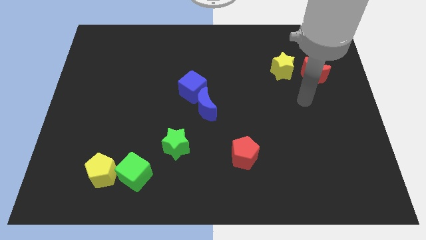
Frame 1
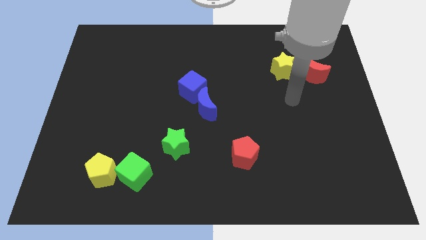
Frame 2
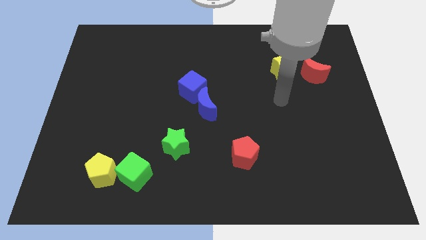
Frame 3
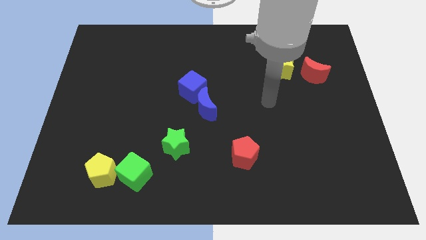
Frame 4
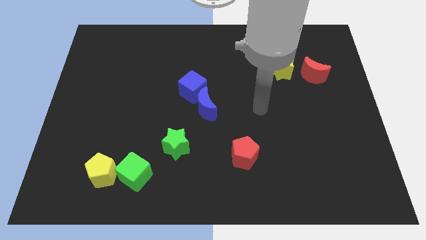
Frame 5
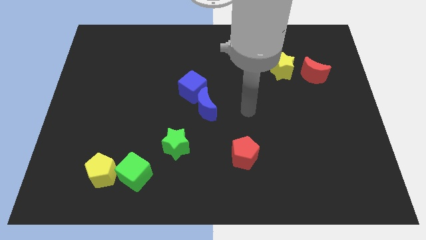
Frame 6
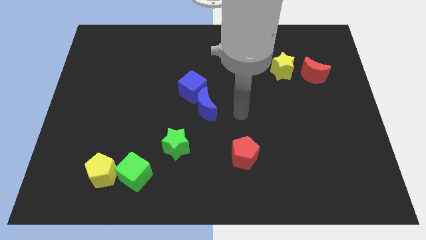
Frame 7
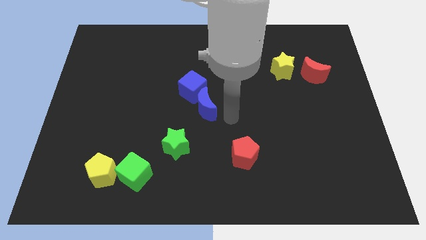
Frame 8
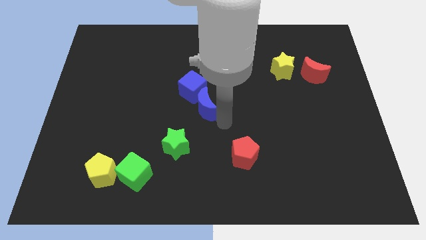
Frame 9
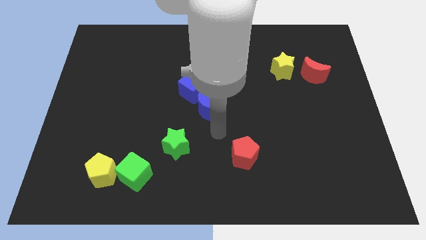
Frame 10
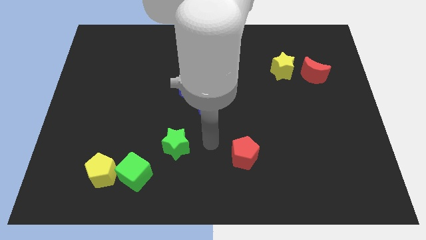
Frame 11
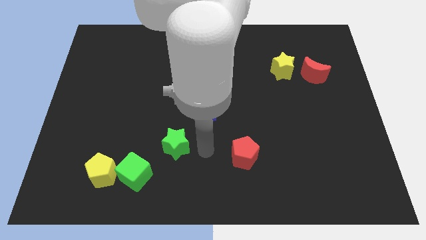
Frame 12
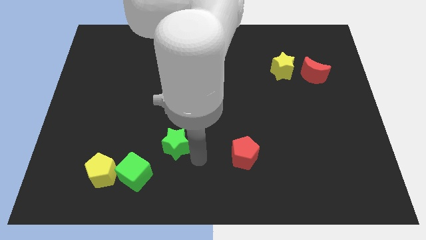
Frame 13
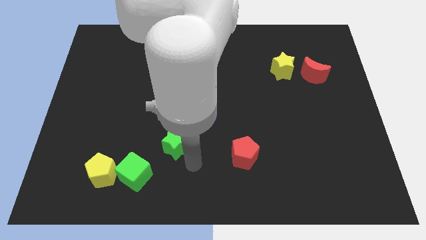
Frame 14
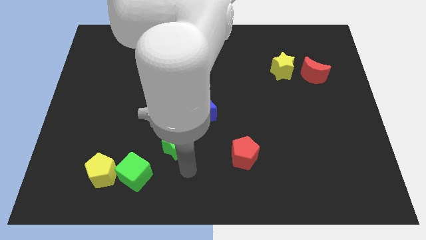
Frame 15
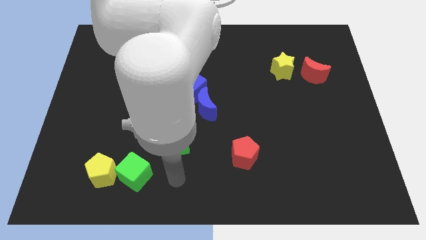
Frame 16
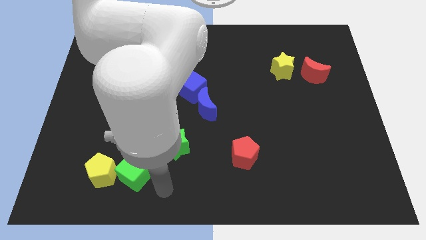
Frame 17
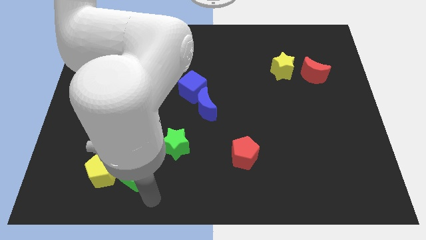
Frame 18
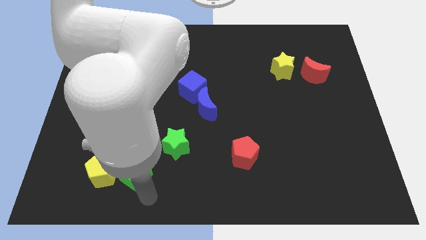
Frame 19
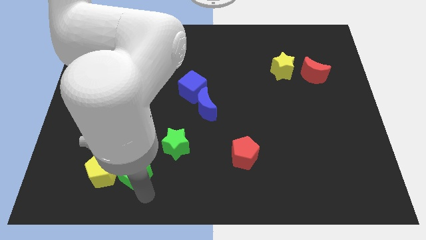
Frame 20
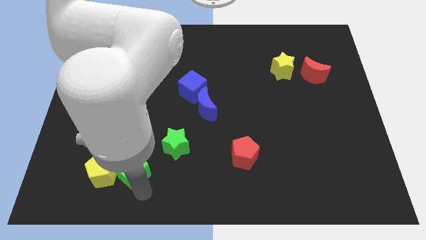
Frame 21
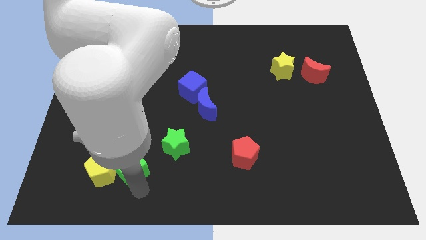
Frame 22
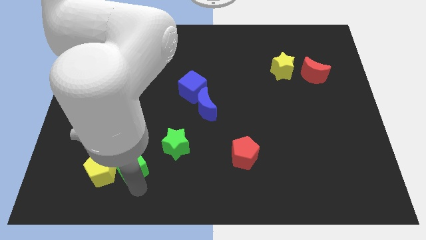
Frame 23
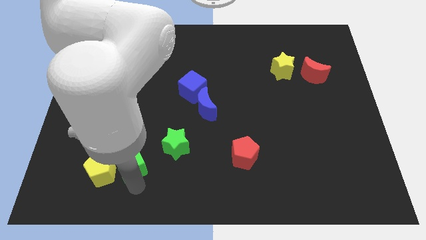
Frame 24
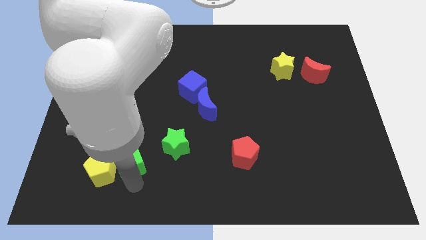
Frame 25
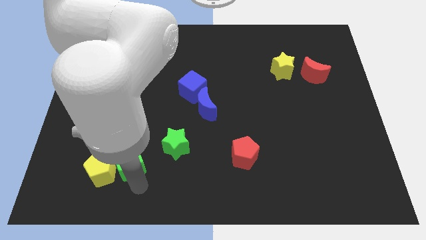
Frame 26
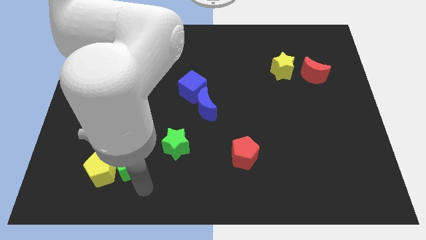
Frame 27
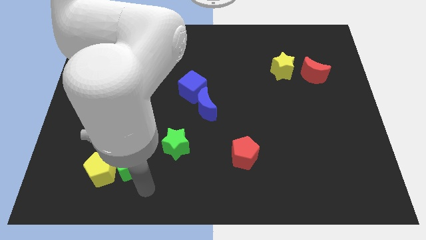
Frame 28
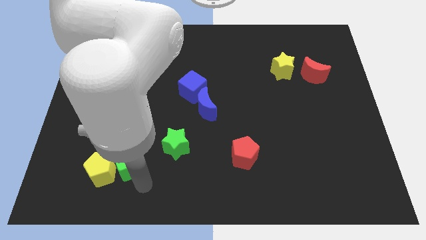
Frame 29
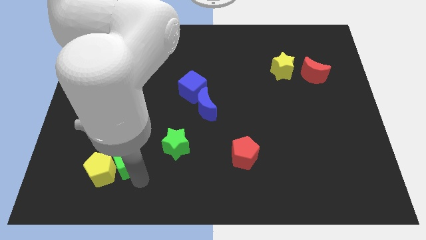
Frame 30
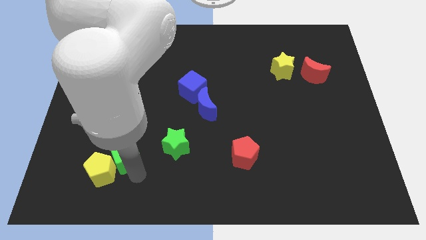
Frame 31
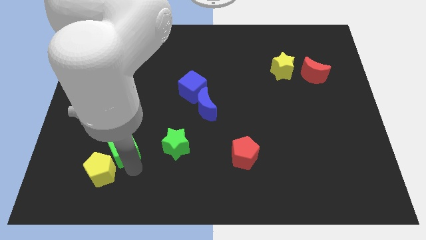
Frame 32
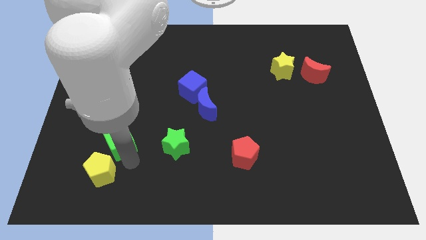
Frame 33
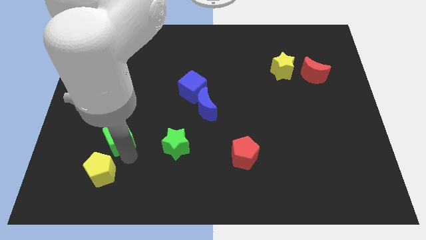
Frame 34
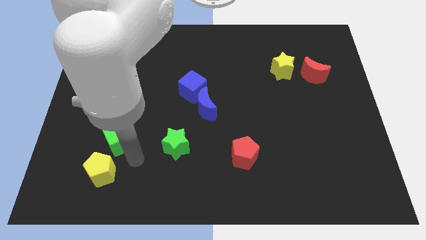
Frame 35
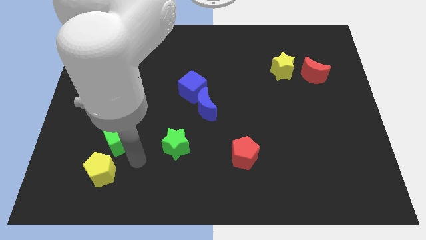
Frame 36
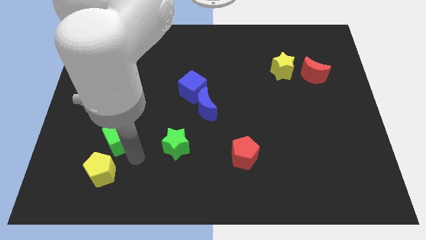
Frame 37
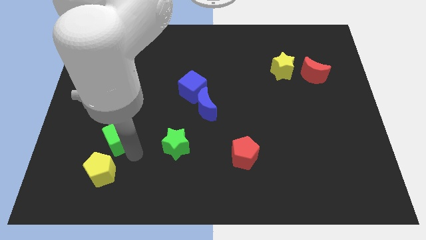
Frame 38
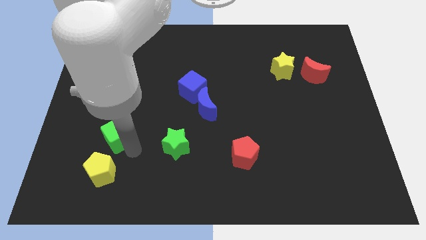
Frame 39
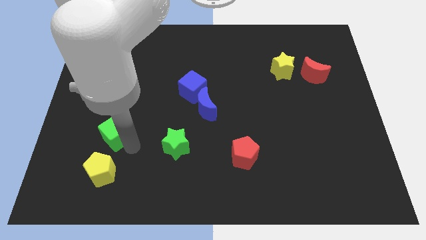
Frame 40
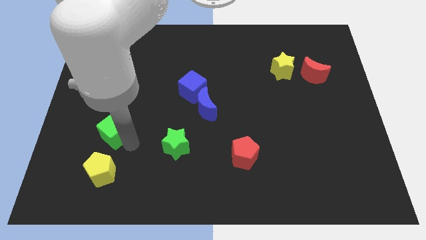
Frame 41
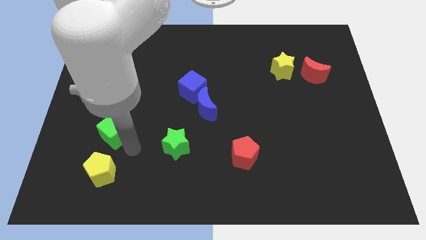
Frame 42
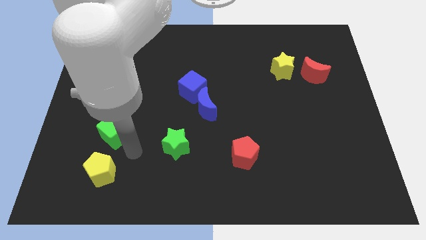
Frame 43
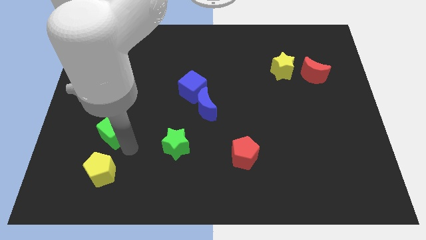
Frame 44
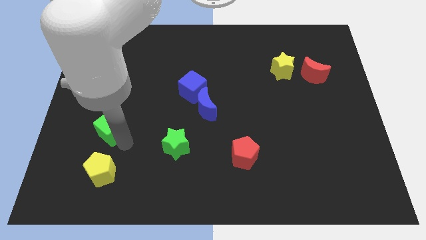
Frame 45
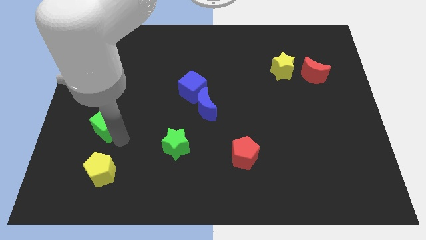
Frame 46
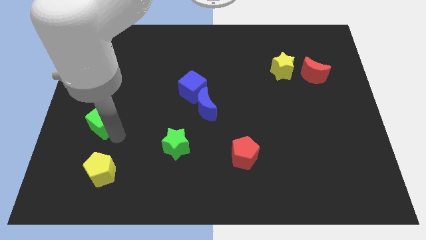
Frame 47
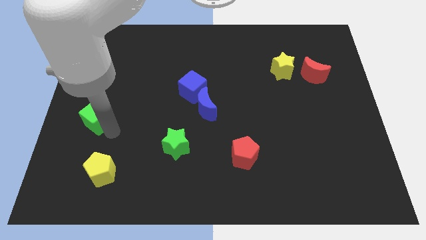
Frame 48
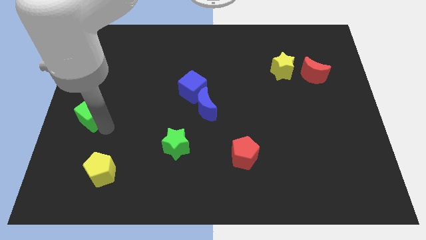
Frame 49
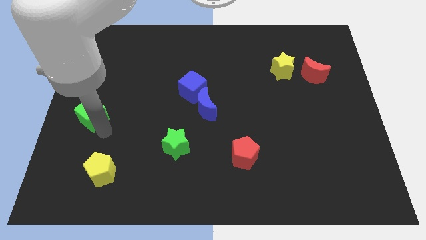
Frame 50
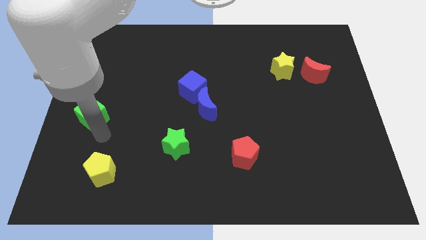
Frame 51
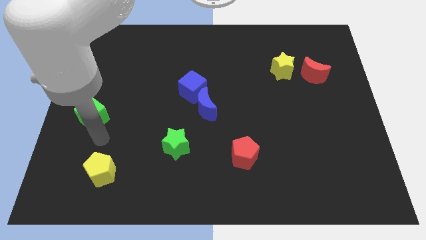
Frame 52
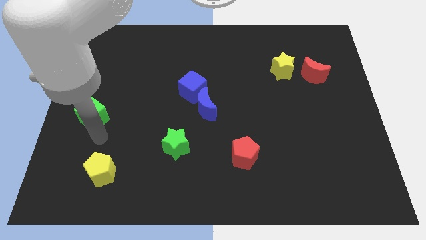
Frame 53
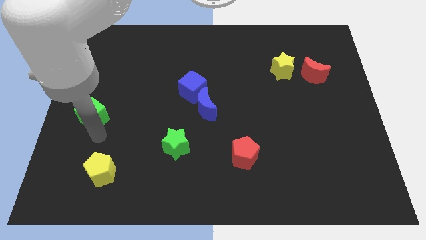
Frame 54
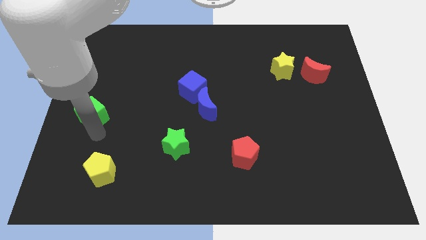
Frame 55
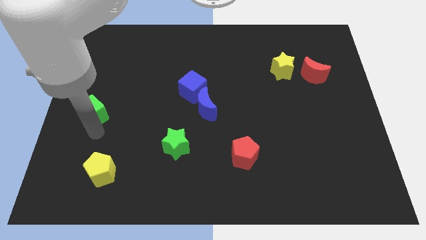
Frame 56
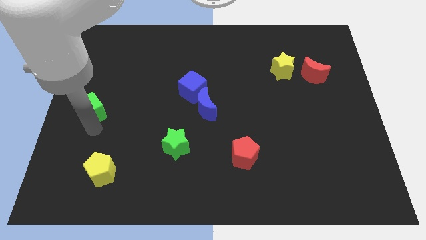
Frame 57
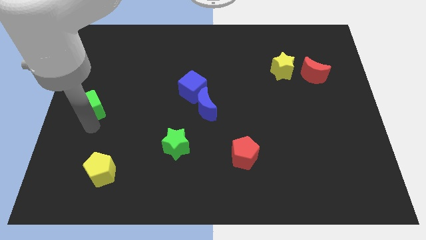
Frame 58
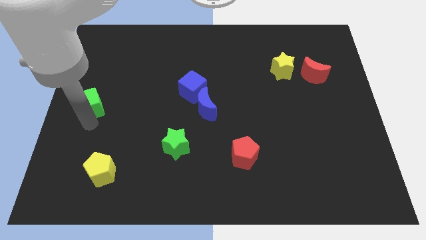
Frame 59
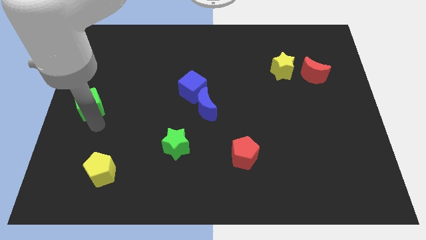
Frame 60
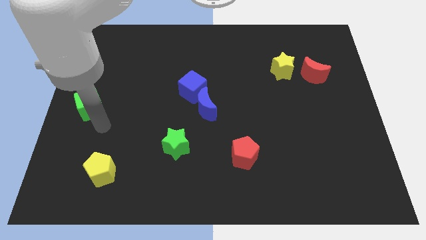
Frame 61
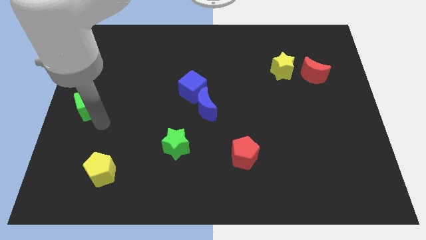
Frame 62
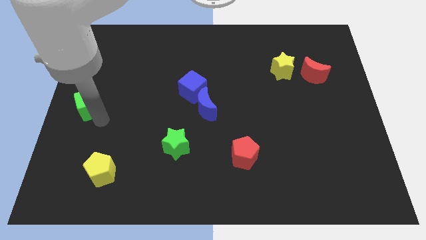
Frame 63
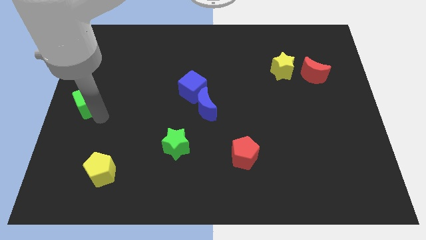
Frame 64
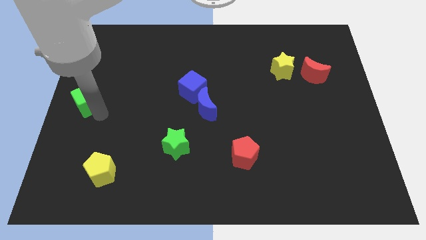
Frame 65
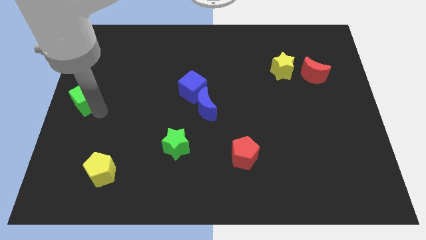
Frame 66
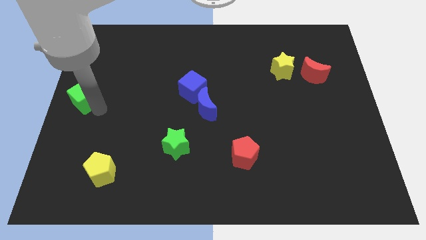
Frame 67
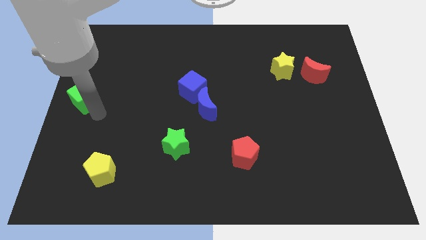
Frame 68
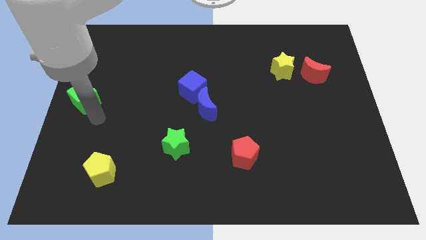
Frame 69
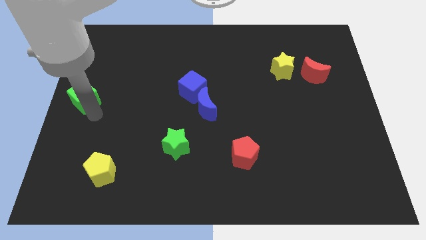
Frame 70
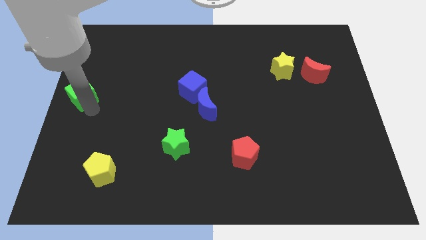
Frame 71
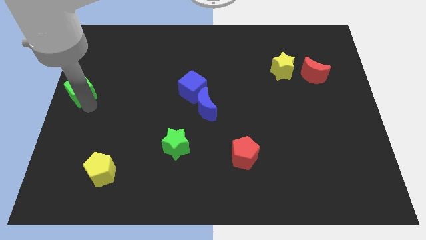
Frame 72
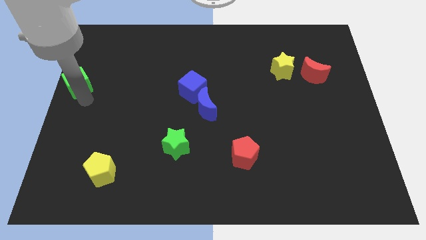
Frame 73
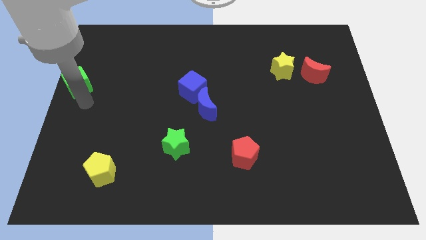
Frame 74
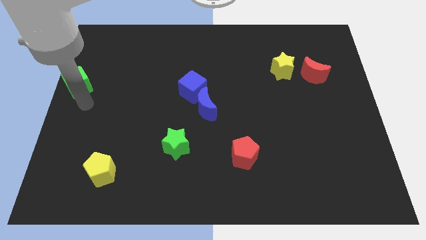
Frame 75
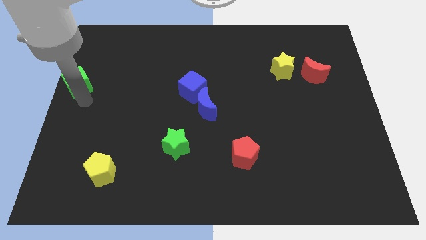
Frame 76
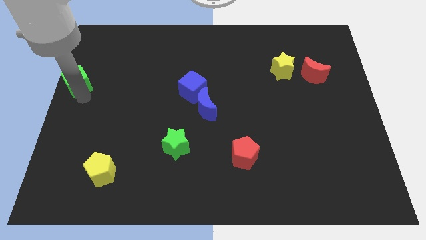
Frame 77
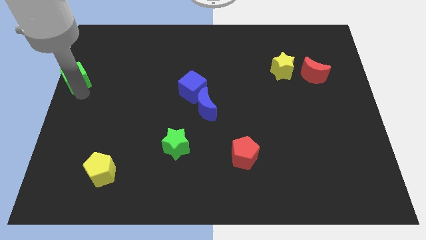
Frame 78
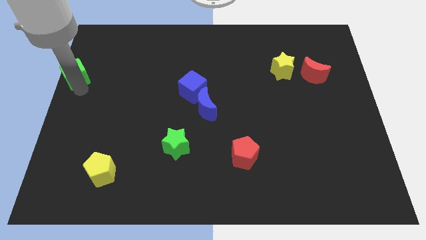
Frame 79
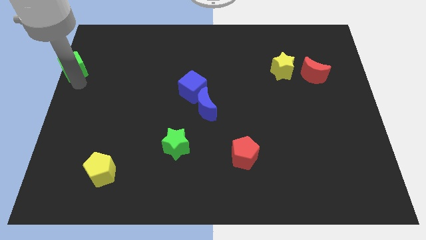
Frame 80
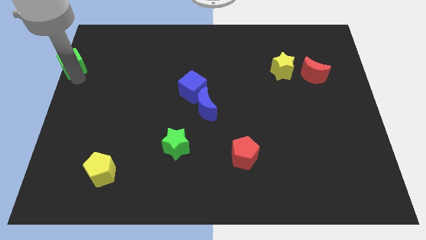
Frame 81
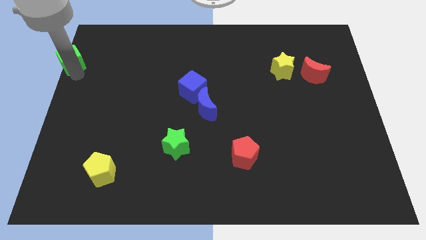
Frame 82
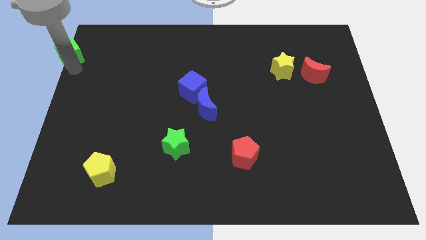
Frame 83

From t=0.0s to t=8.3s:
push the green cube to the top left of the board
